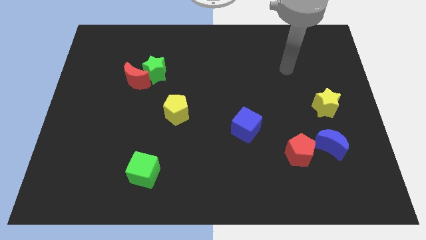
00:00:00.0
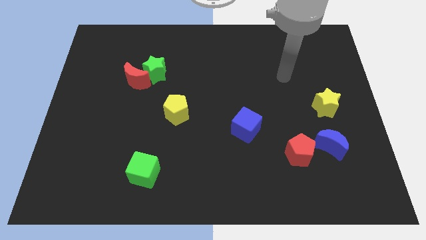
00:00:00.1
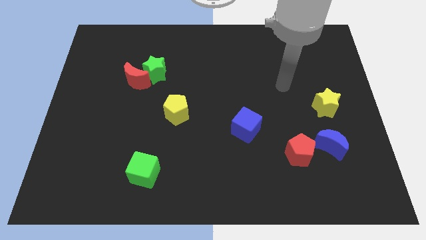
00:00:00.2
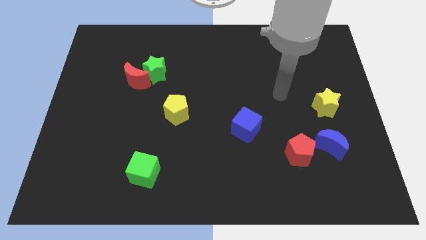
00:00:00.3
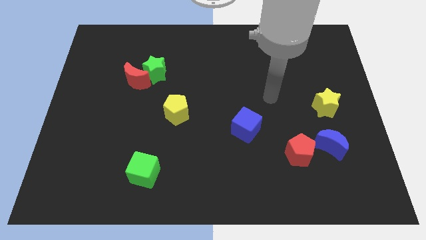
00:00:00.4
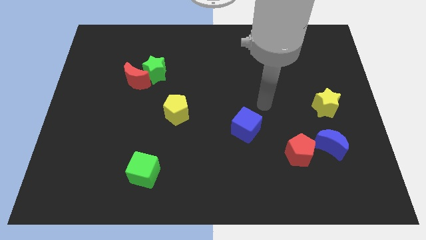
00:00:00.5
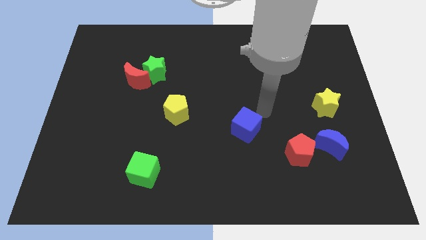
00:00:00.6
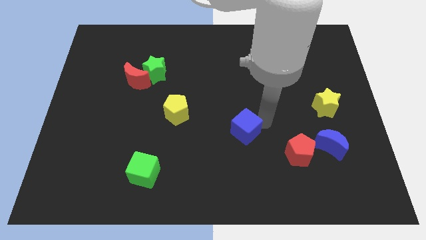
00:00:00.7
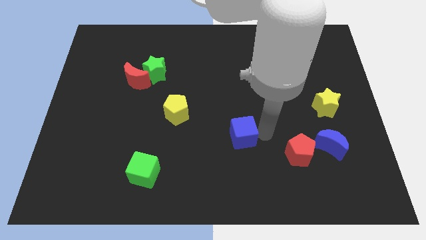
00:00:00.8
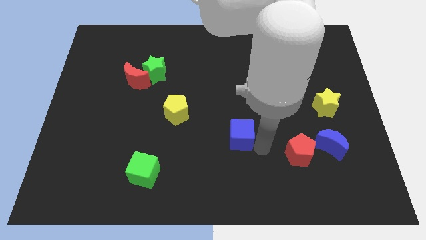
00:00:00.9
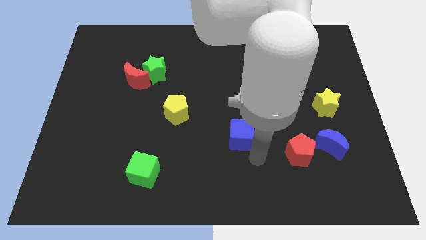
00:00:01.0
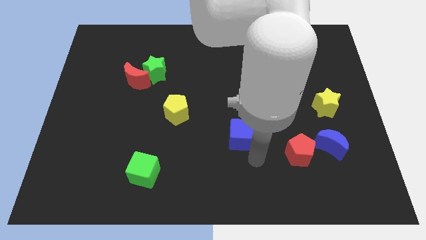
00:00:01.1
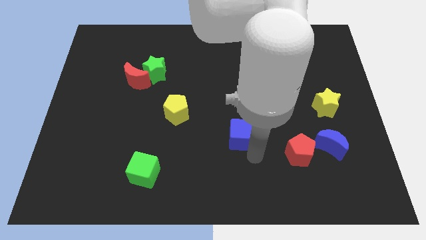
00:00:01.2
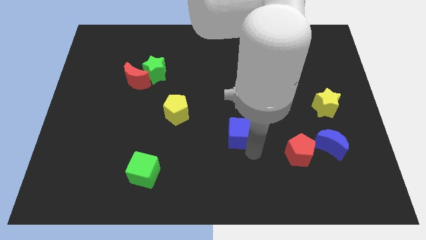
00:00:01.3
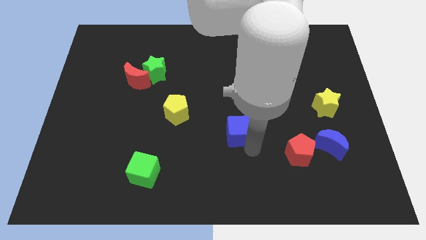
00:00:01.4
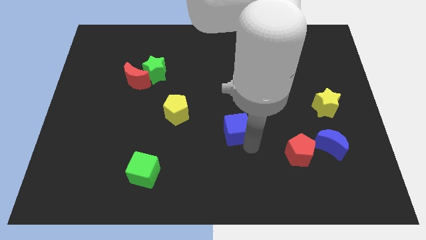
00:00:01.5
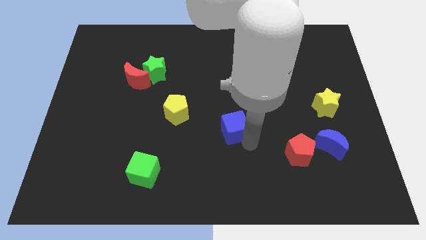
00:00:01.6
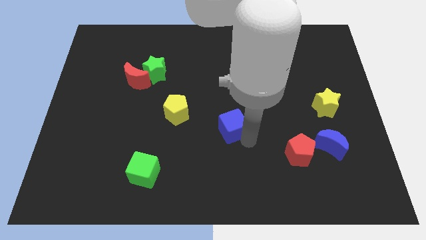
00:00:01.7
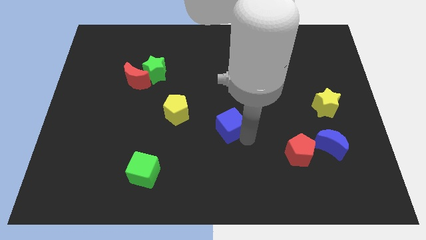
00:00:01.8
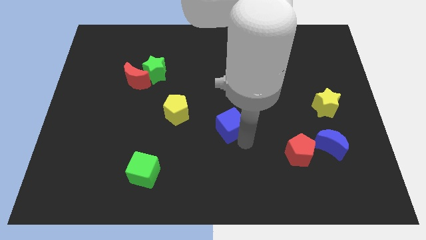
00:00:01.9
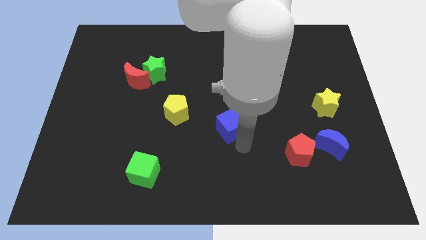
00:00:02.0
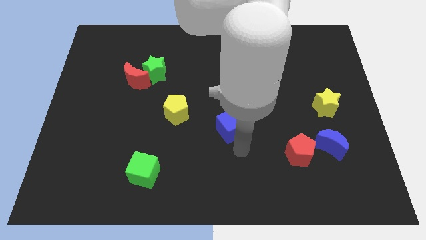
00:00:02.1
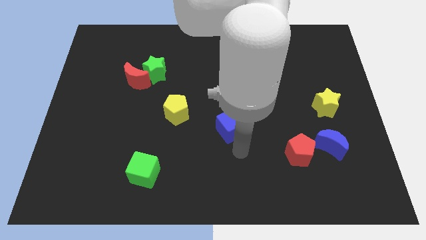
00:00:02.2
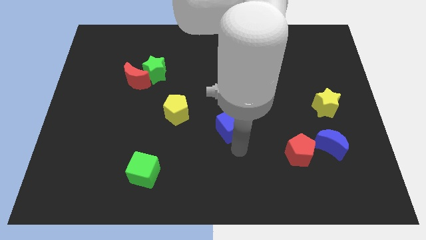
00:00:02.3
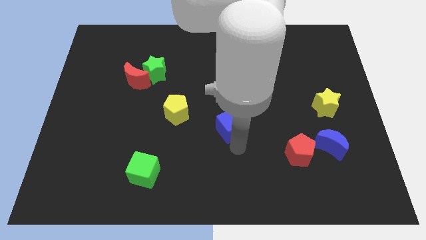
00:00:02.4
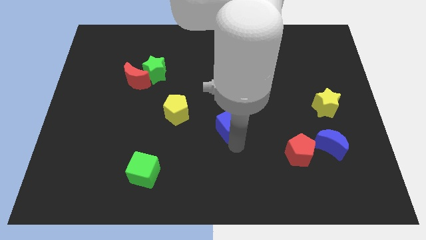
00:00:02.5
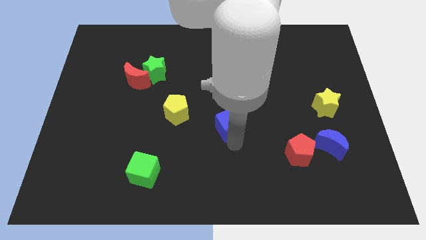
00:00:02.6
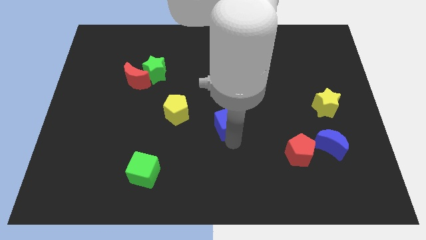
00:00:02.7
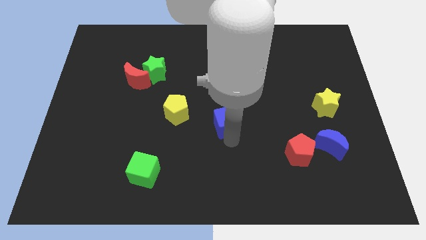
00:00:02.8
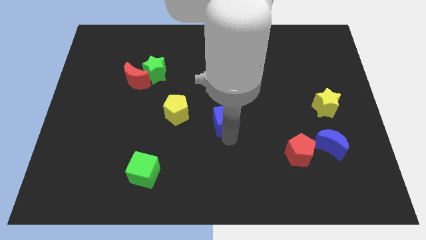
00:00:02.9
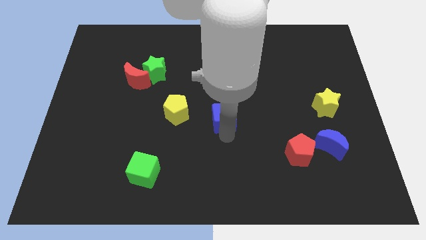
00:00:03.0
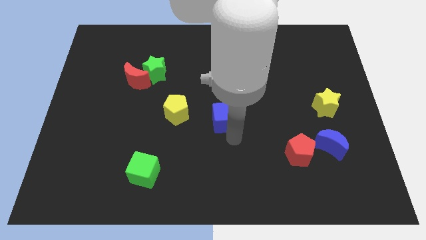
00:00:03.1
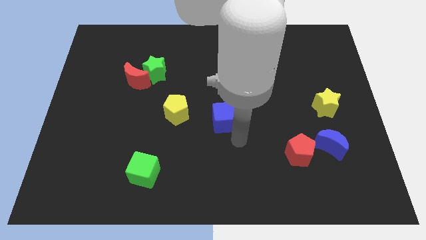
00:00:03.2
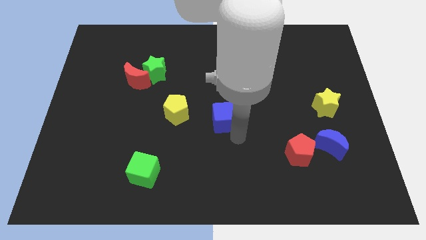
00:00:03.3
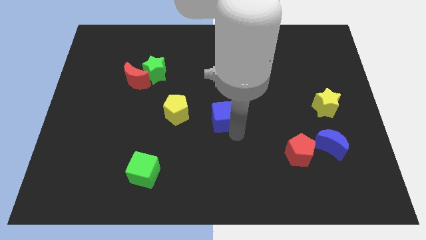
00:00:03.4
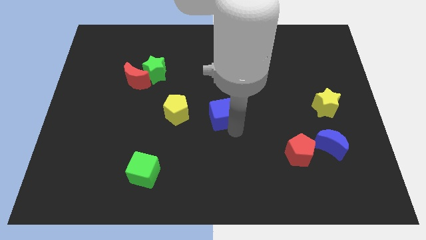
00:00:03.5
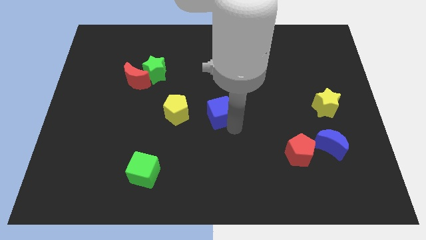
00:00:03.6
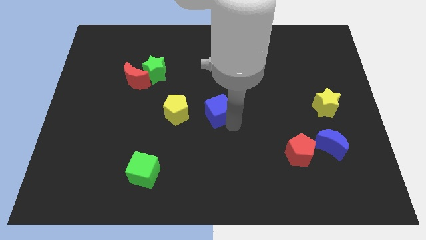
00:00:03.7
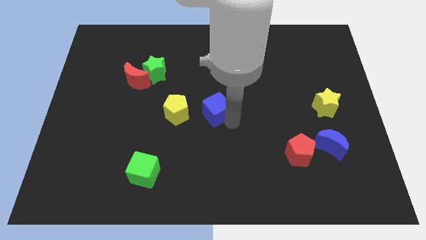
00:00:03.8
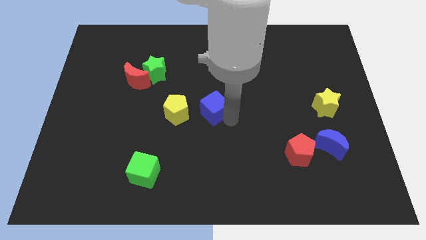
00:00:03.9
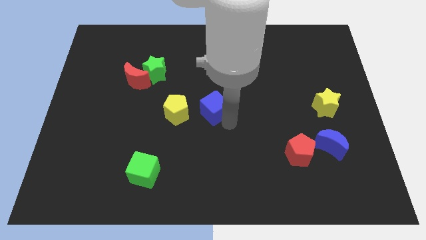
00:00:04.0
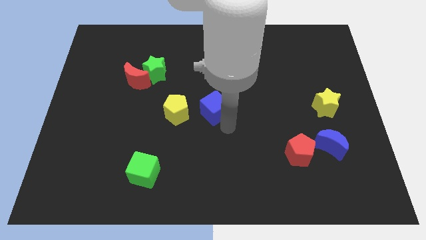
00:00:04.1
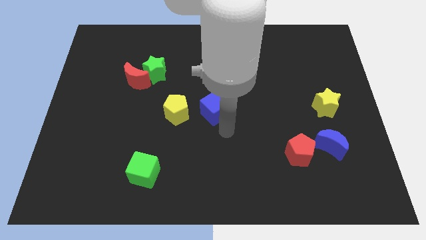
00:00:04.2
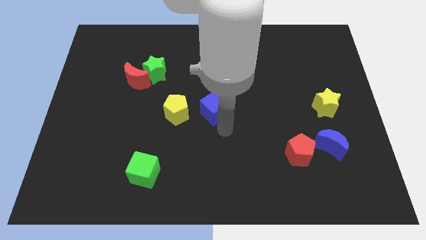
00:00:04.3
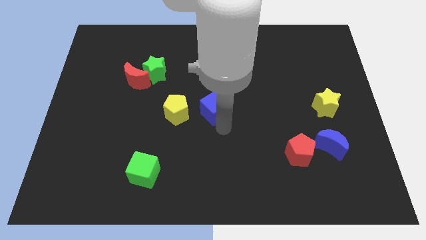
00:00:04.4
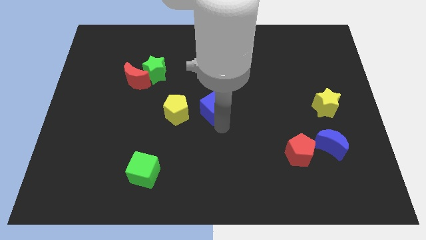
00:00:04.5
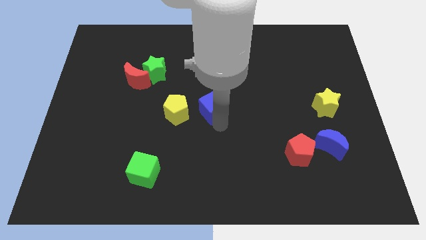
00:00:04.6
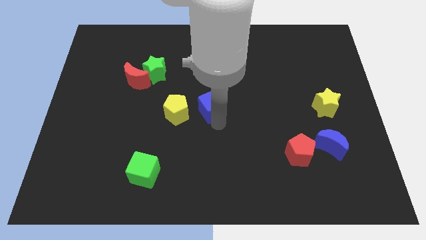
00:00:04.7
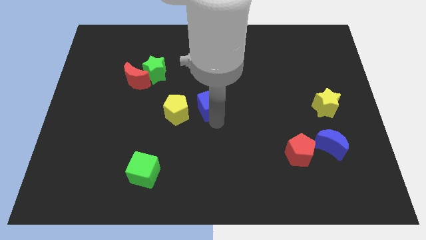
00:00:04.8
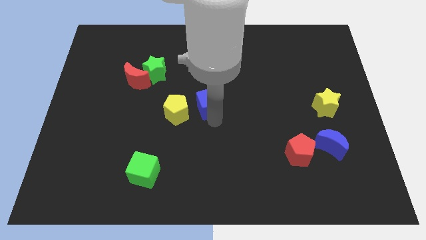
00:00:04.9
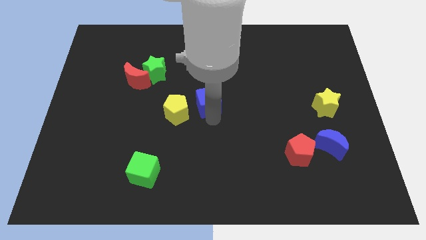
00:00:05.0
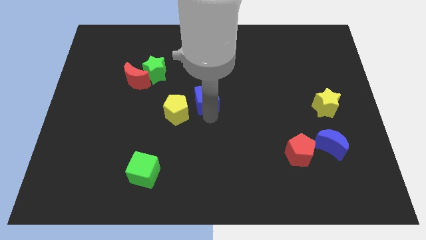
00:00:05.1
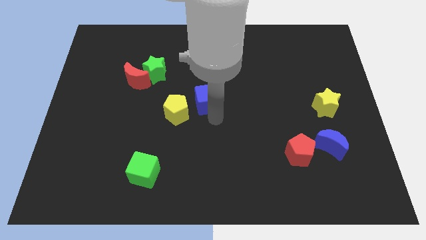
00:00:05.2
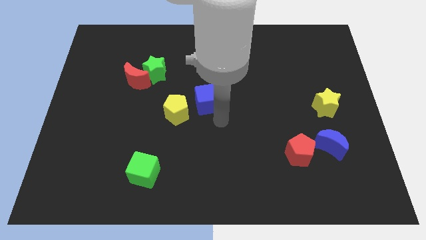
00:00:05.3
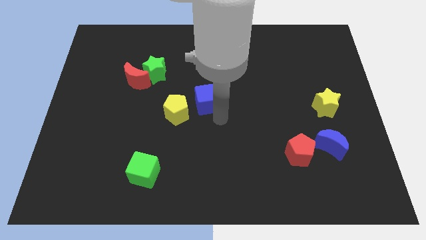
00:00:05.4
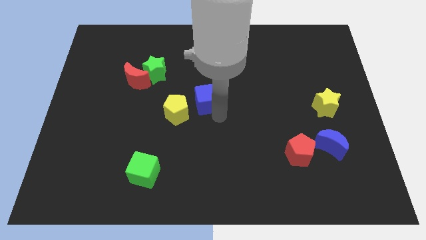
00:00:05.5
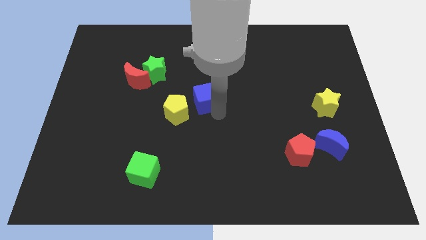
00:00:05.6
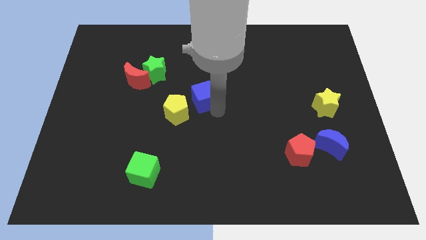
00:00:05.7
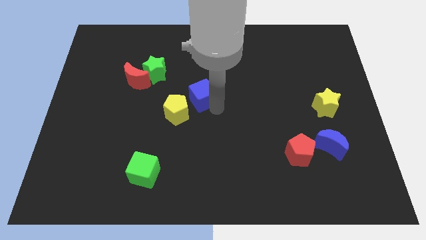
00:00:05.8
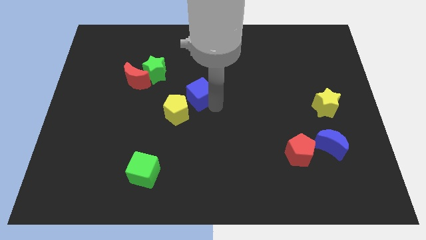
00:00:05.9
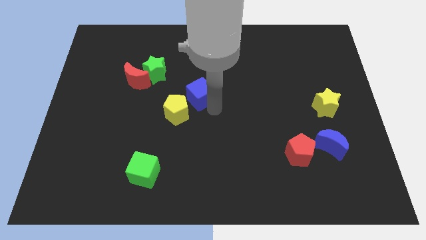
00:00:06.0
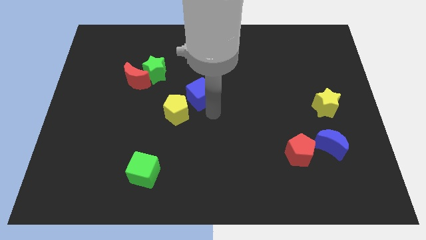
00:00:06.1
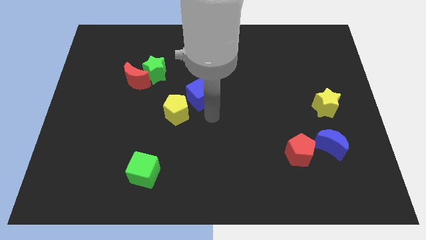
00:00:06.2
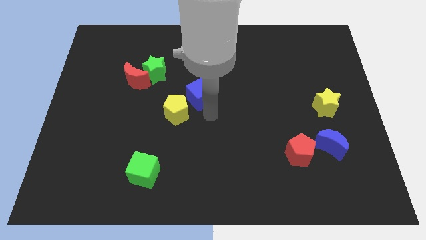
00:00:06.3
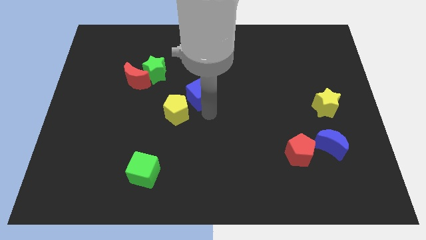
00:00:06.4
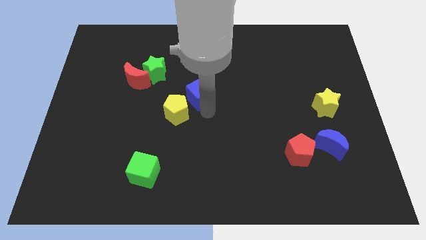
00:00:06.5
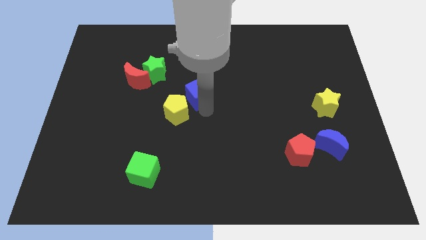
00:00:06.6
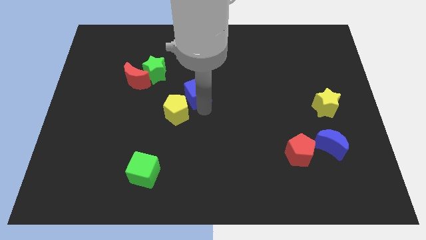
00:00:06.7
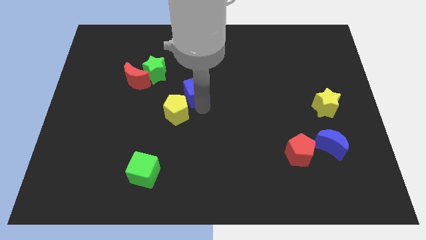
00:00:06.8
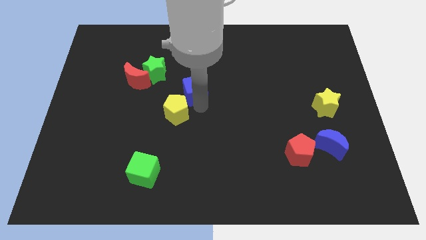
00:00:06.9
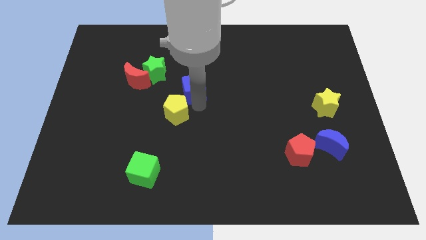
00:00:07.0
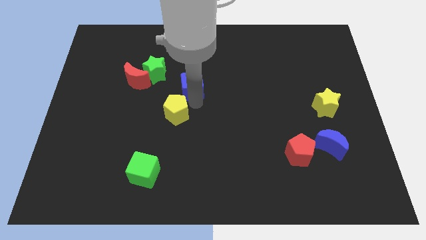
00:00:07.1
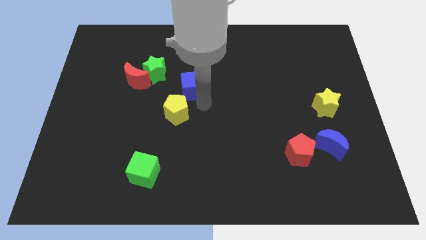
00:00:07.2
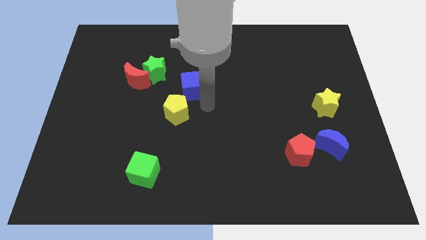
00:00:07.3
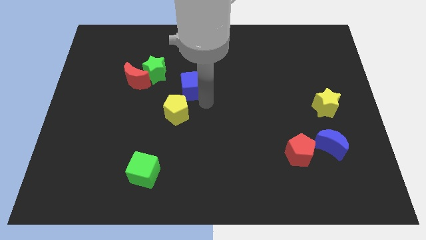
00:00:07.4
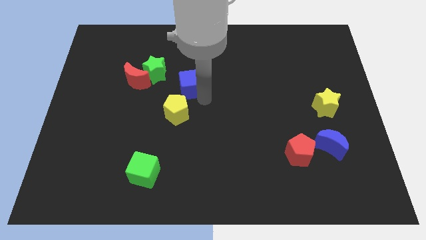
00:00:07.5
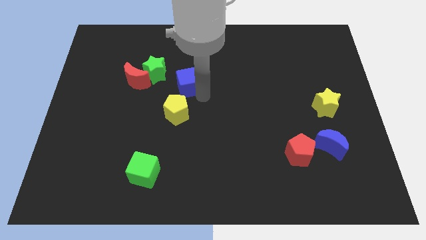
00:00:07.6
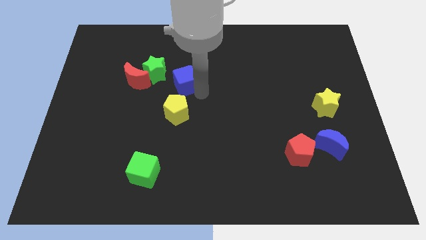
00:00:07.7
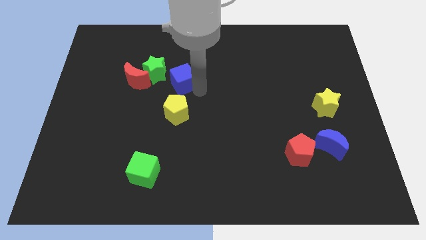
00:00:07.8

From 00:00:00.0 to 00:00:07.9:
move the blue cube up and then left

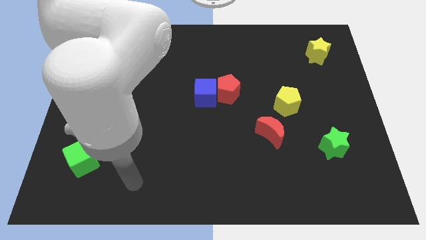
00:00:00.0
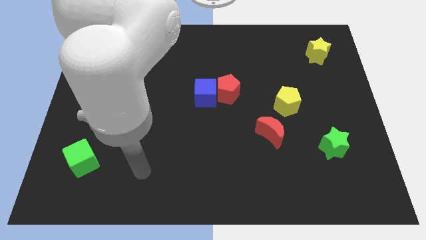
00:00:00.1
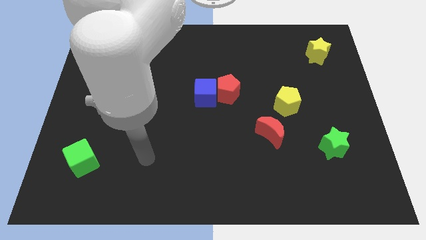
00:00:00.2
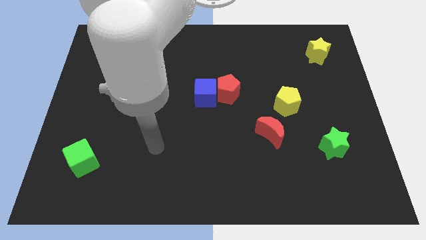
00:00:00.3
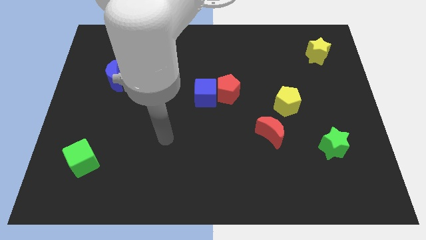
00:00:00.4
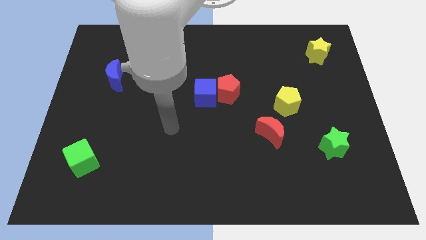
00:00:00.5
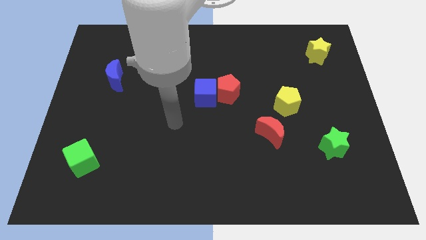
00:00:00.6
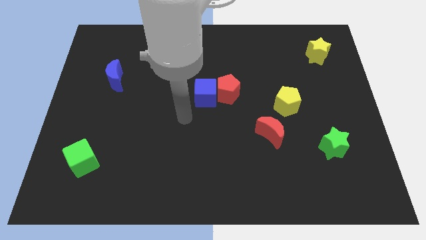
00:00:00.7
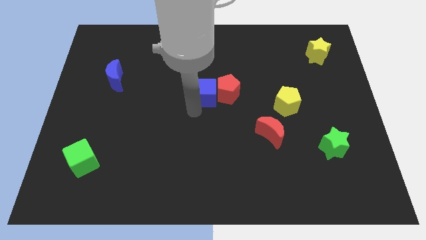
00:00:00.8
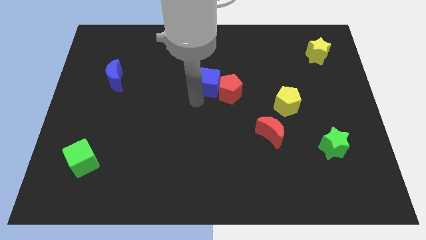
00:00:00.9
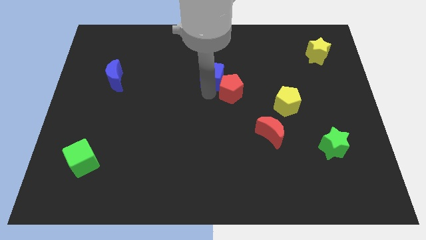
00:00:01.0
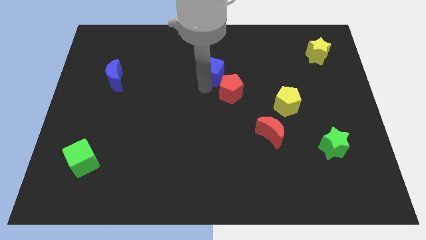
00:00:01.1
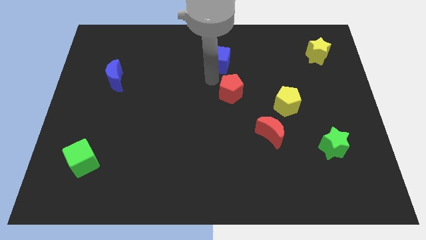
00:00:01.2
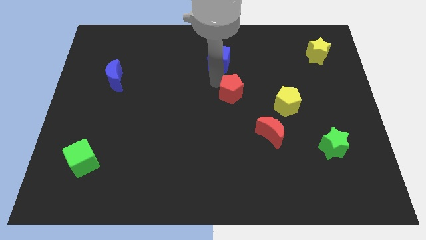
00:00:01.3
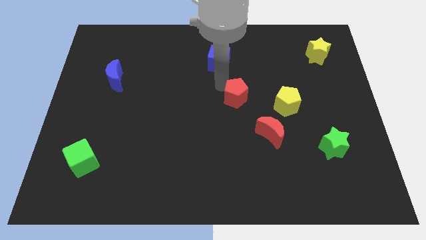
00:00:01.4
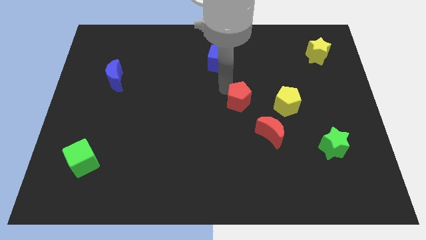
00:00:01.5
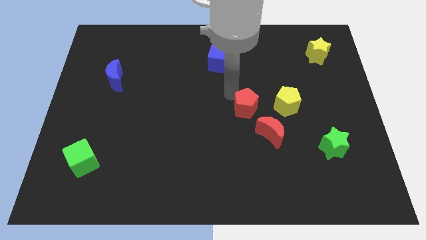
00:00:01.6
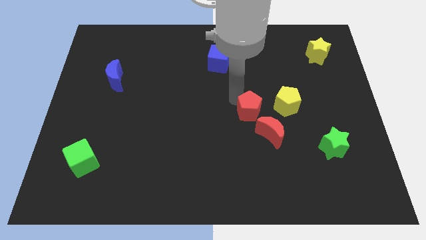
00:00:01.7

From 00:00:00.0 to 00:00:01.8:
slightly slide the red pentagon downwards and right diagonally
